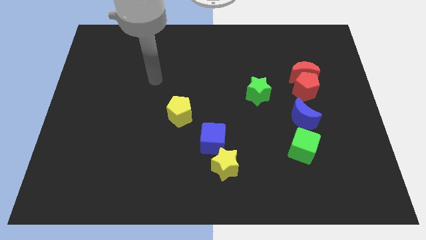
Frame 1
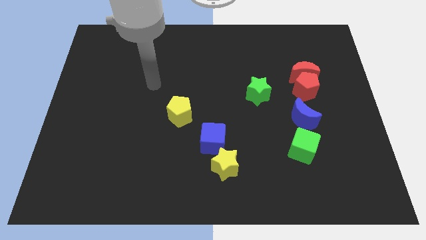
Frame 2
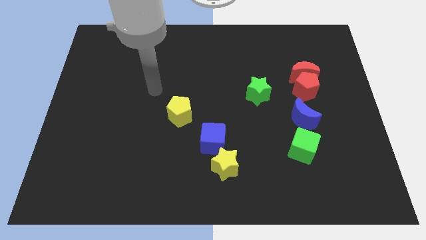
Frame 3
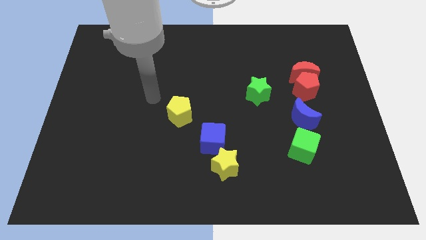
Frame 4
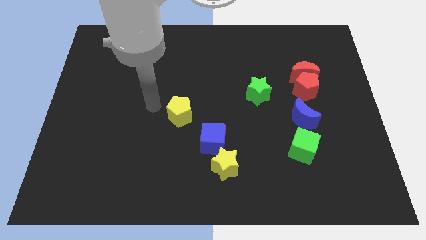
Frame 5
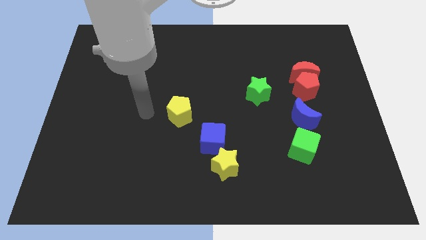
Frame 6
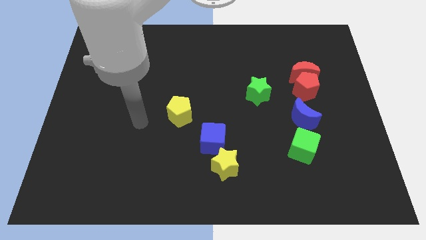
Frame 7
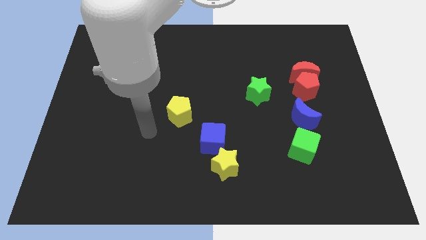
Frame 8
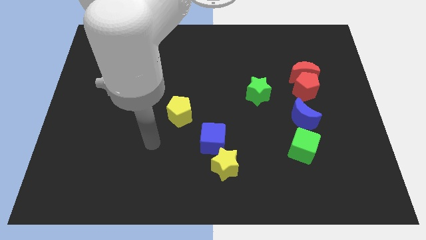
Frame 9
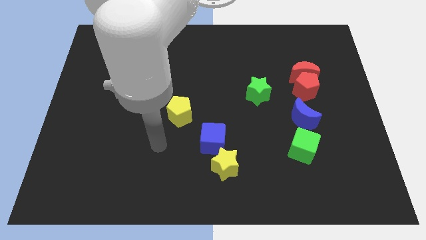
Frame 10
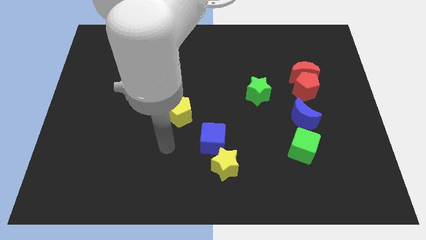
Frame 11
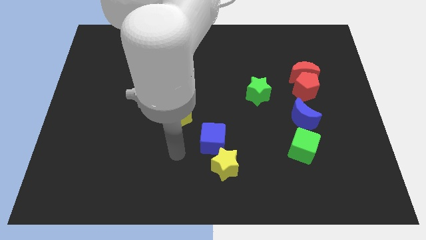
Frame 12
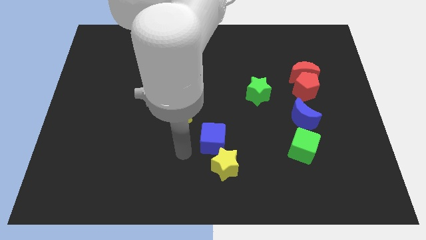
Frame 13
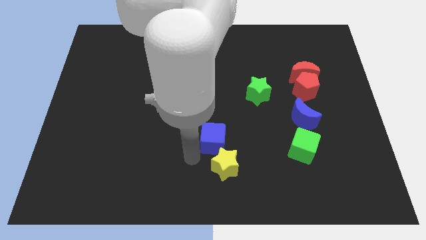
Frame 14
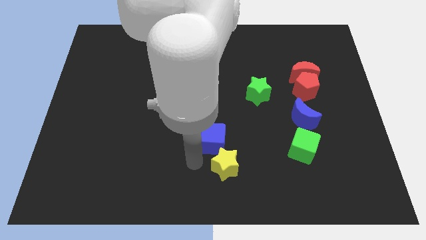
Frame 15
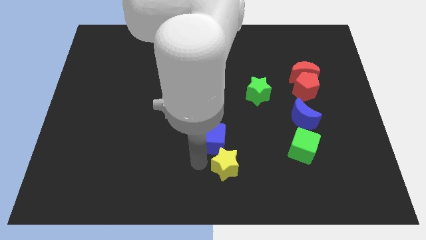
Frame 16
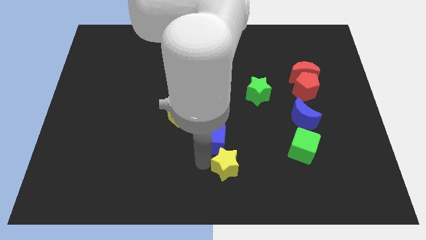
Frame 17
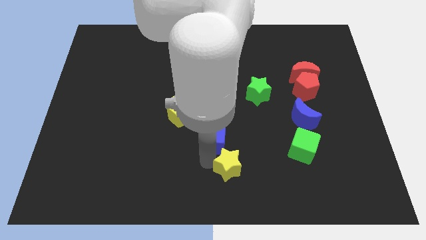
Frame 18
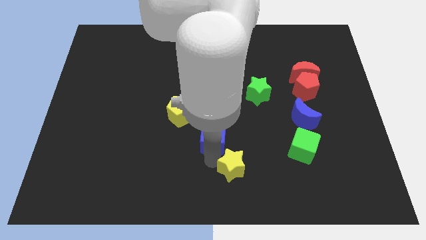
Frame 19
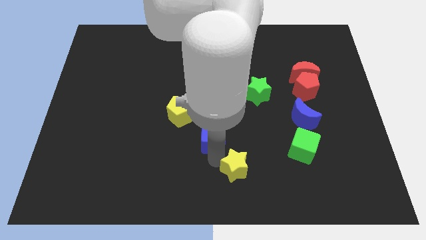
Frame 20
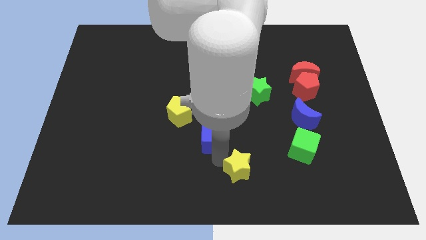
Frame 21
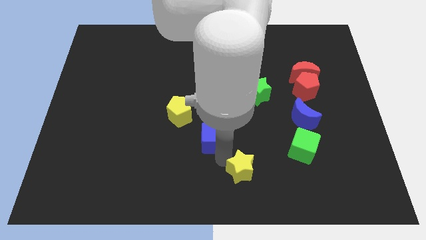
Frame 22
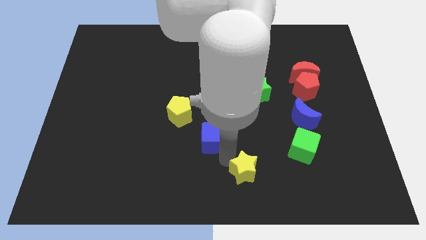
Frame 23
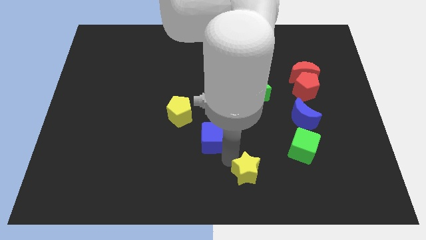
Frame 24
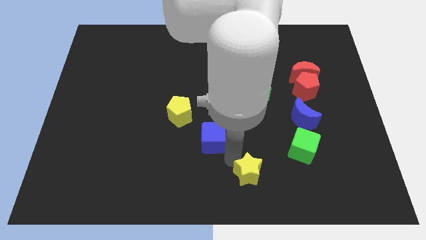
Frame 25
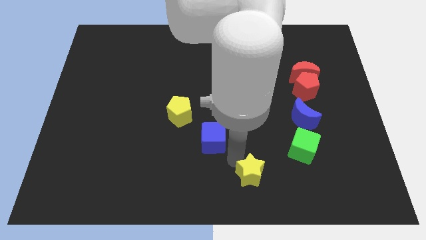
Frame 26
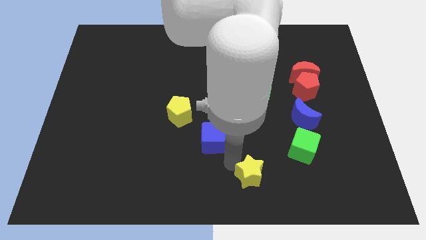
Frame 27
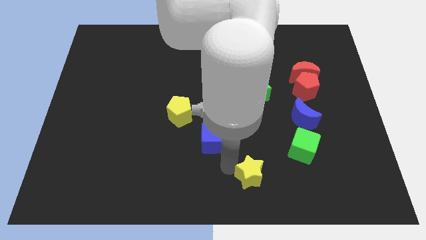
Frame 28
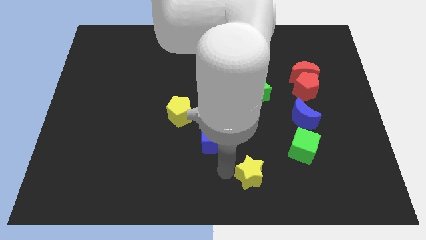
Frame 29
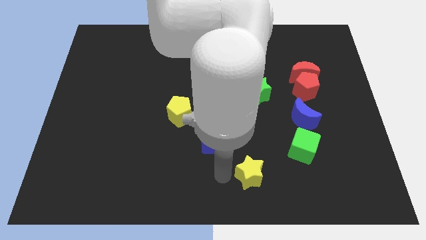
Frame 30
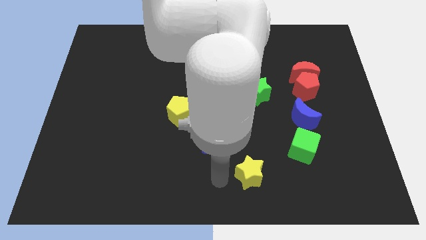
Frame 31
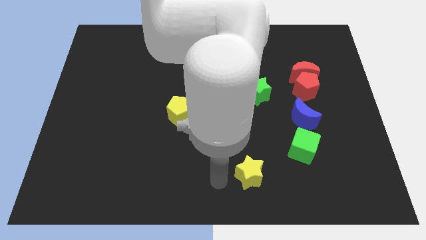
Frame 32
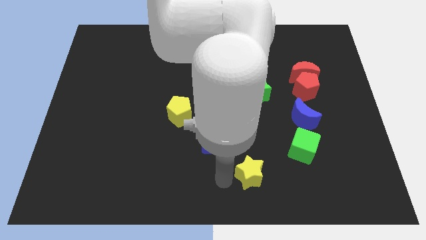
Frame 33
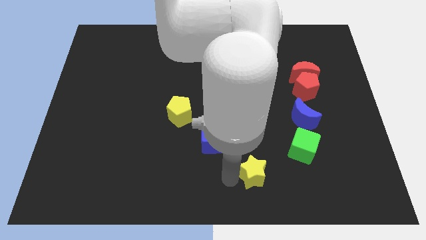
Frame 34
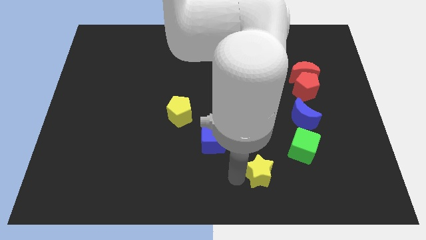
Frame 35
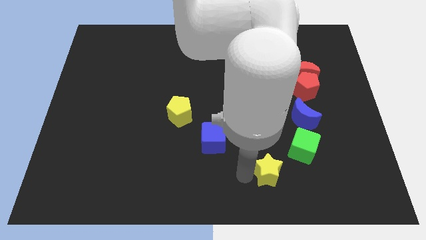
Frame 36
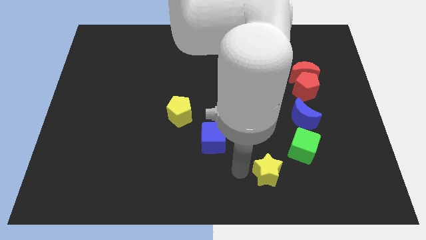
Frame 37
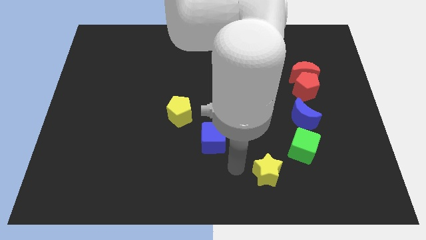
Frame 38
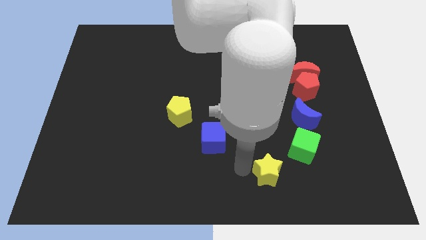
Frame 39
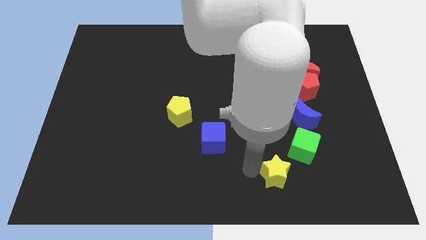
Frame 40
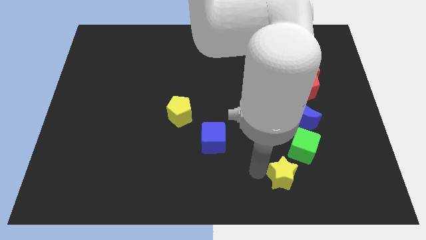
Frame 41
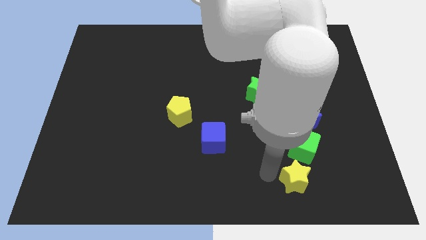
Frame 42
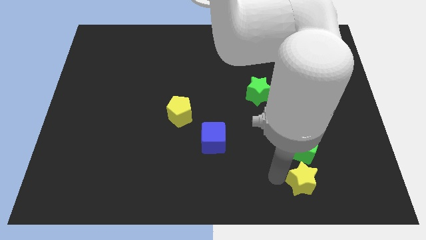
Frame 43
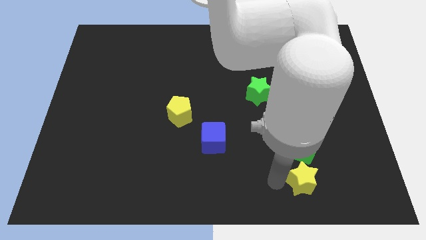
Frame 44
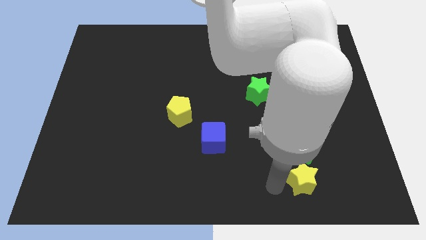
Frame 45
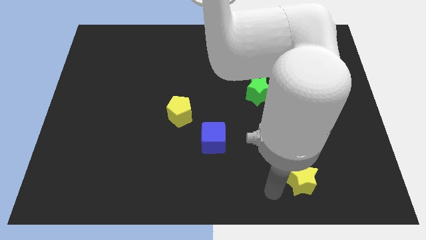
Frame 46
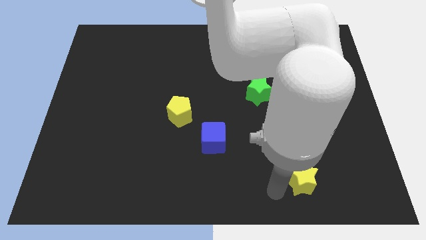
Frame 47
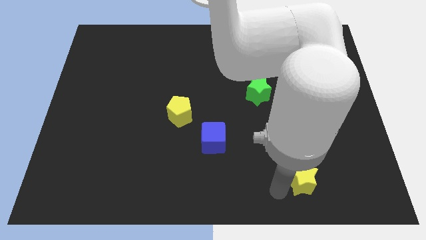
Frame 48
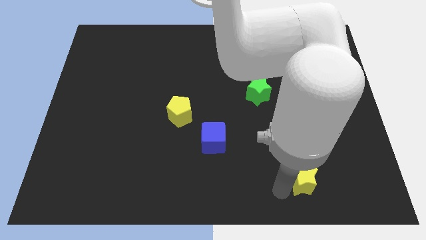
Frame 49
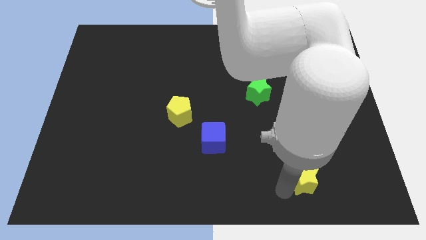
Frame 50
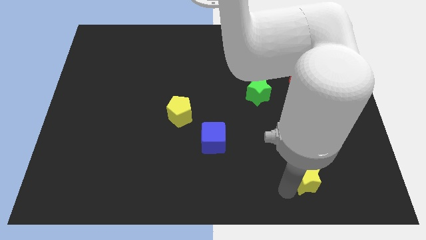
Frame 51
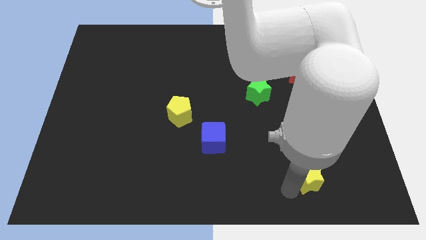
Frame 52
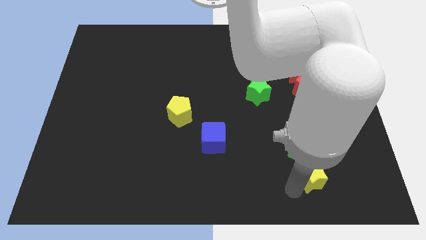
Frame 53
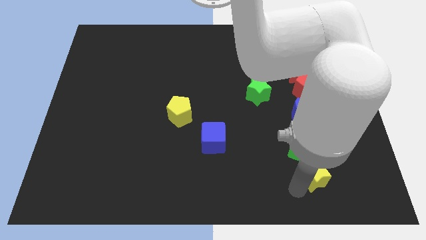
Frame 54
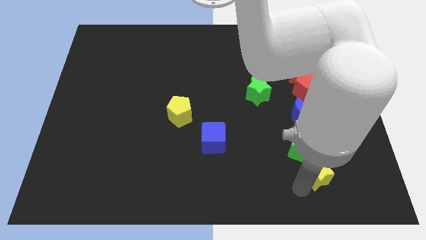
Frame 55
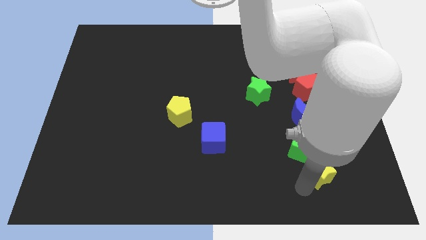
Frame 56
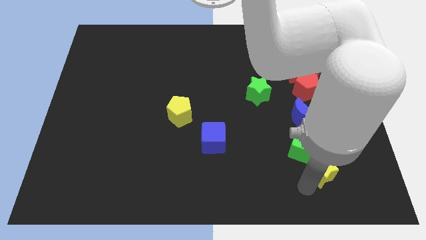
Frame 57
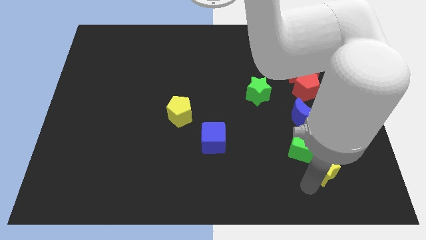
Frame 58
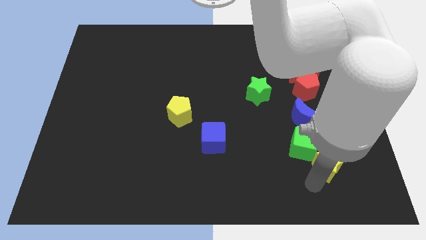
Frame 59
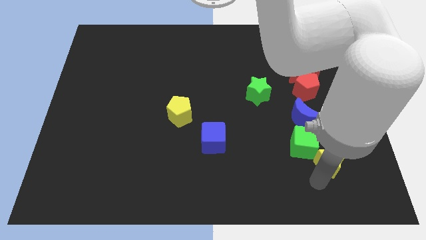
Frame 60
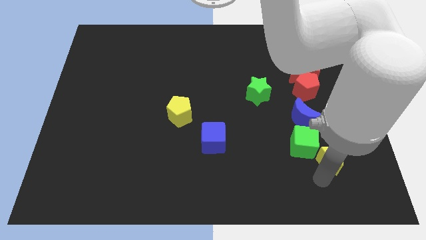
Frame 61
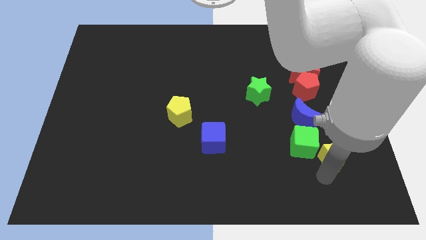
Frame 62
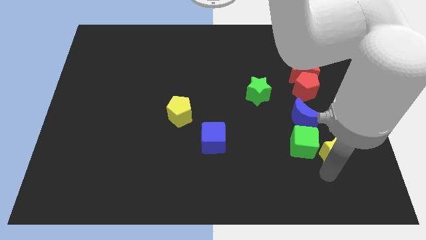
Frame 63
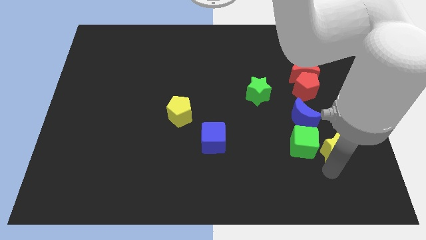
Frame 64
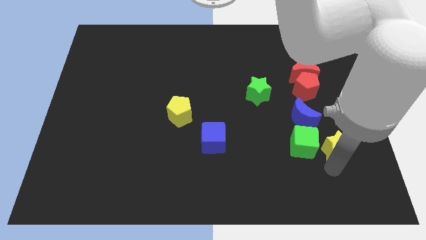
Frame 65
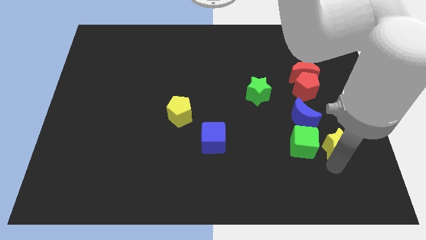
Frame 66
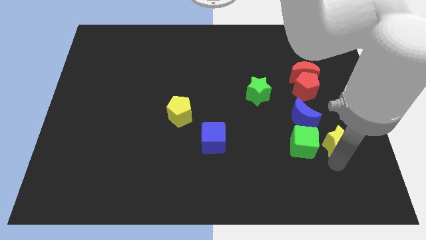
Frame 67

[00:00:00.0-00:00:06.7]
put the yellow star to the top right of the green cube

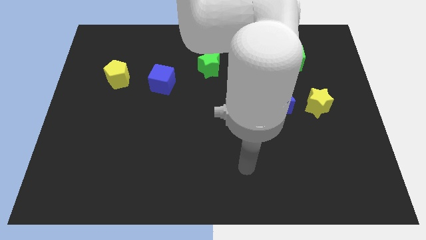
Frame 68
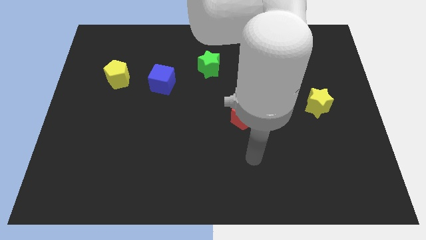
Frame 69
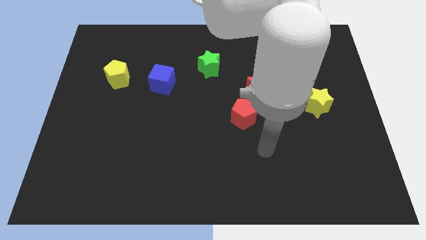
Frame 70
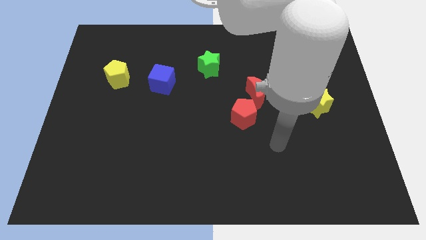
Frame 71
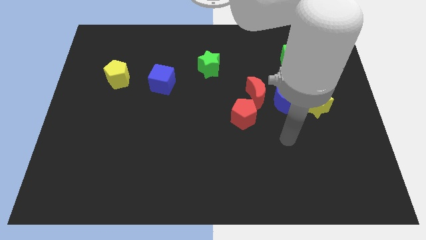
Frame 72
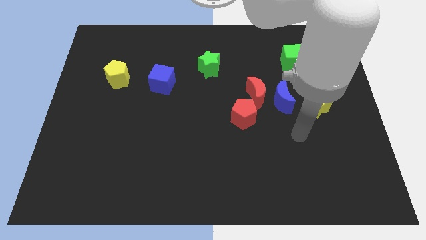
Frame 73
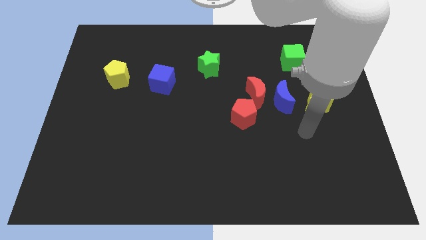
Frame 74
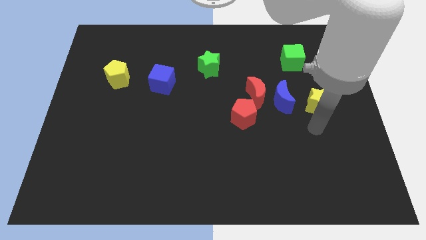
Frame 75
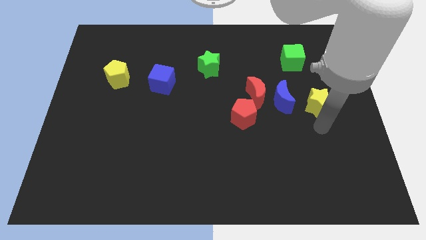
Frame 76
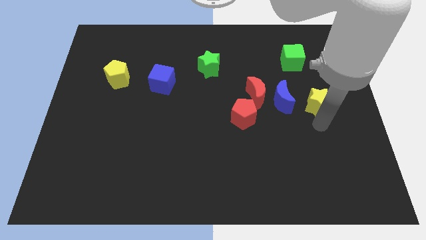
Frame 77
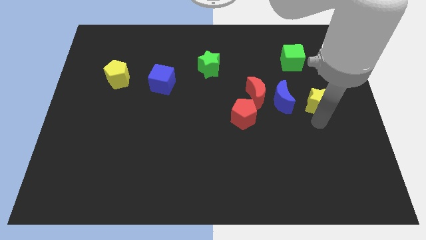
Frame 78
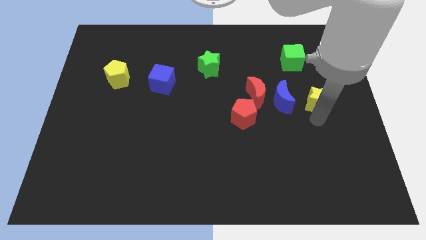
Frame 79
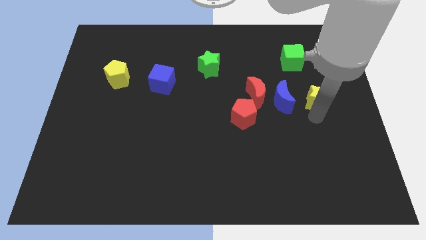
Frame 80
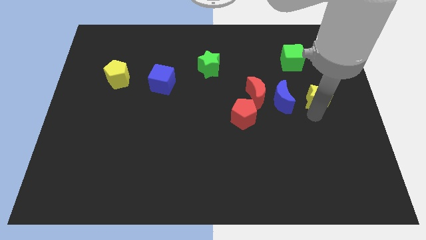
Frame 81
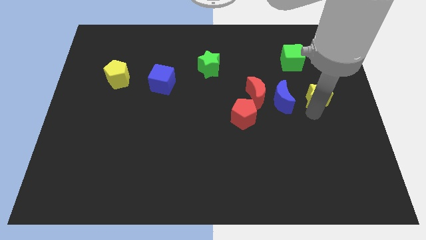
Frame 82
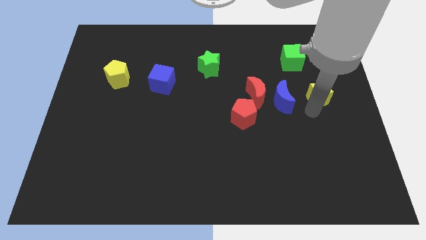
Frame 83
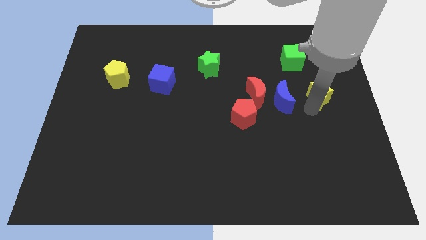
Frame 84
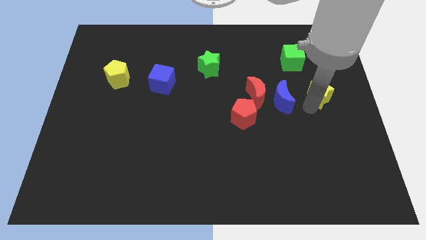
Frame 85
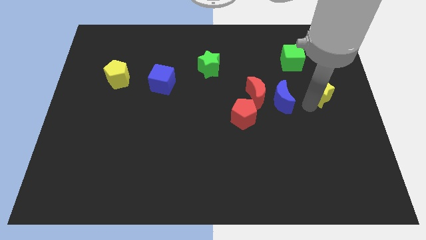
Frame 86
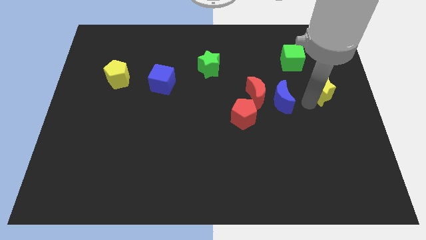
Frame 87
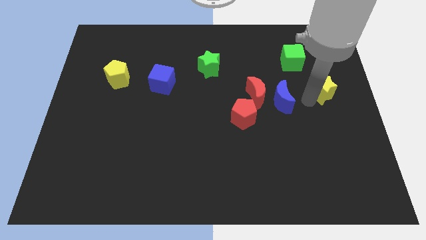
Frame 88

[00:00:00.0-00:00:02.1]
push the yellow star to the bottom right of the green cube
